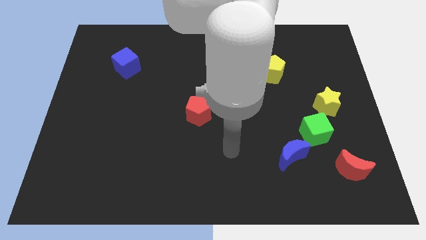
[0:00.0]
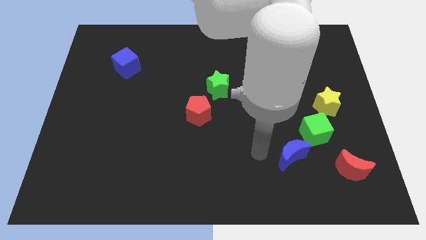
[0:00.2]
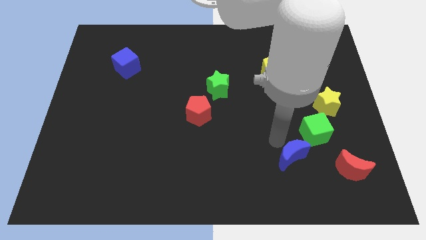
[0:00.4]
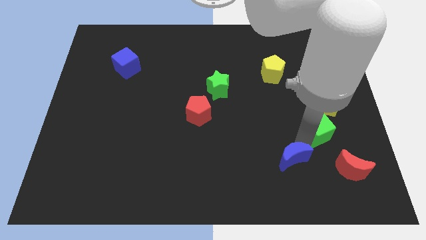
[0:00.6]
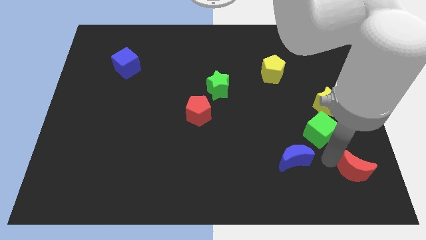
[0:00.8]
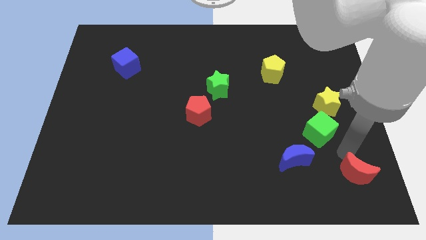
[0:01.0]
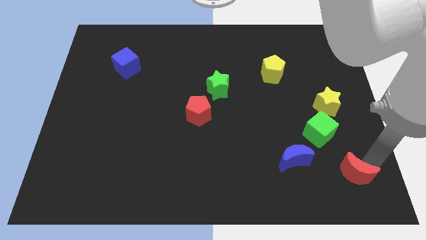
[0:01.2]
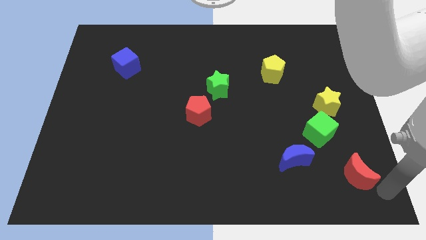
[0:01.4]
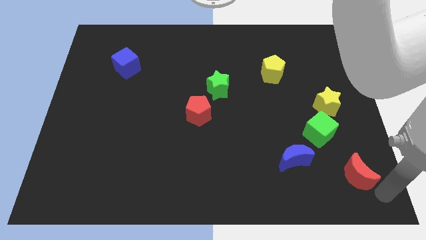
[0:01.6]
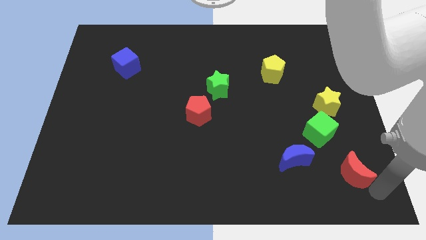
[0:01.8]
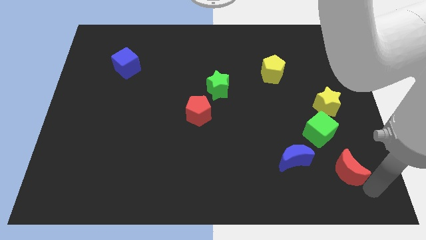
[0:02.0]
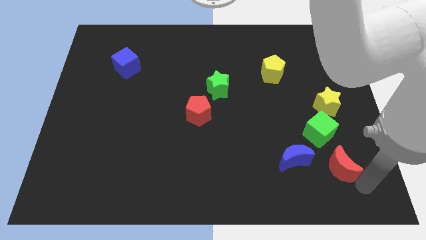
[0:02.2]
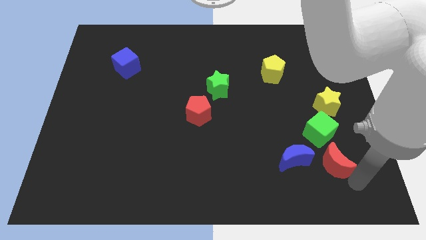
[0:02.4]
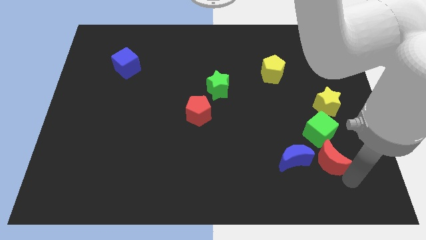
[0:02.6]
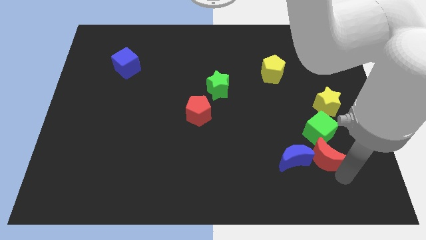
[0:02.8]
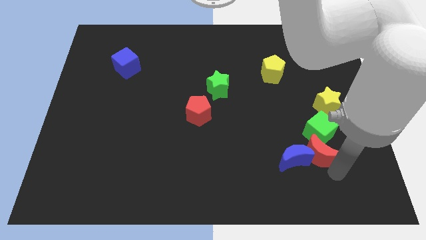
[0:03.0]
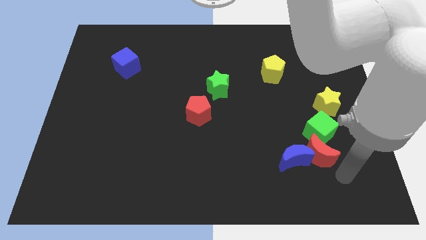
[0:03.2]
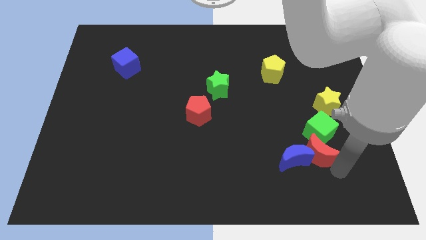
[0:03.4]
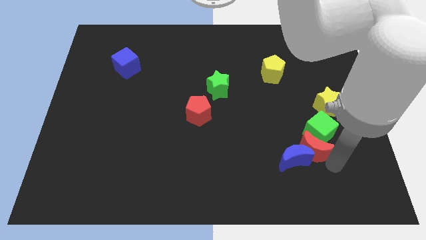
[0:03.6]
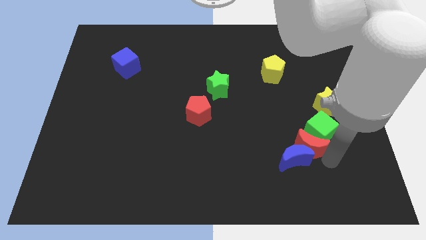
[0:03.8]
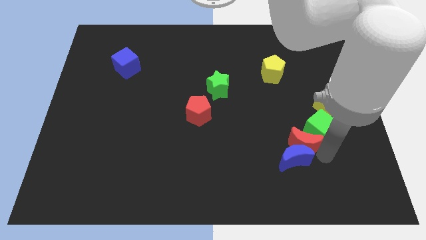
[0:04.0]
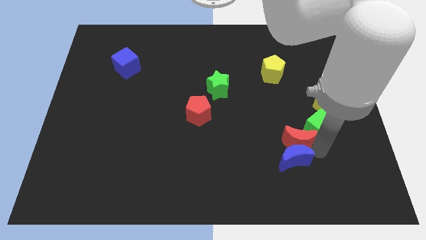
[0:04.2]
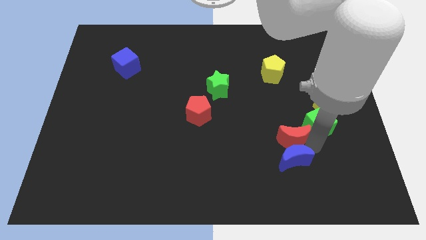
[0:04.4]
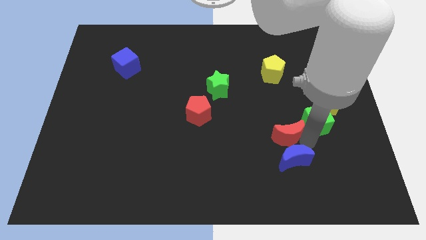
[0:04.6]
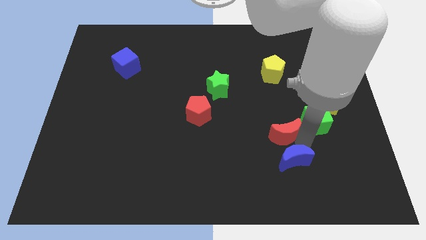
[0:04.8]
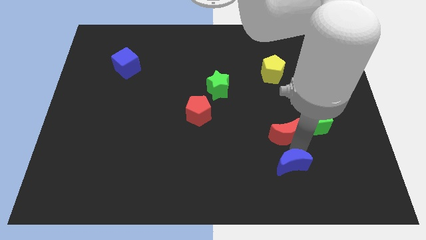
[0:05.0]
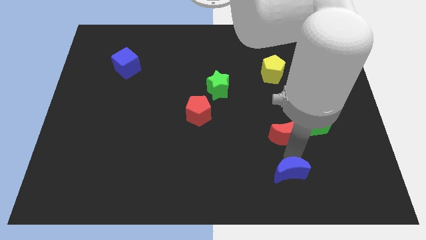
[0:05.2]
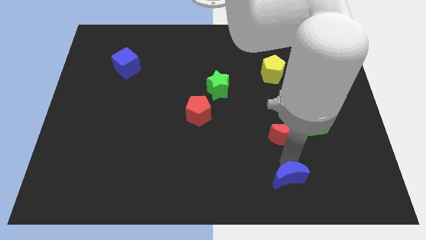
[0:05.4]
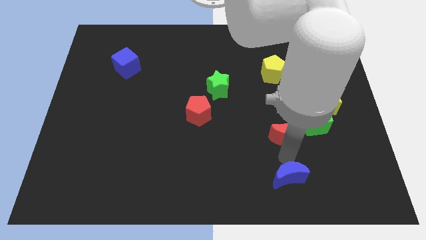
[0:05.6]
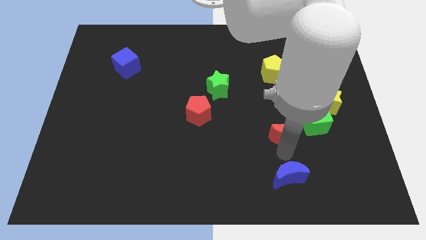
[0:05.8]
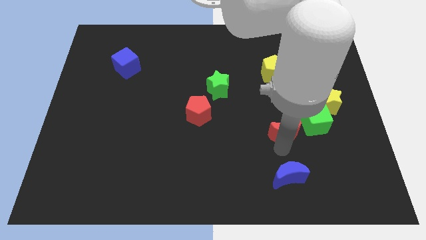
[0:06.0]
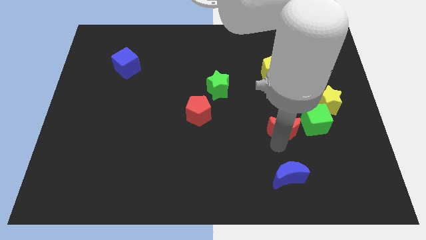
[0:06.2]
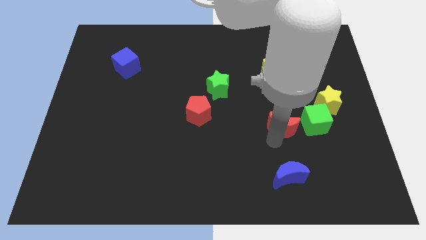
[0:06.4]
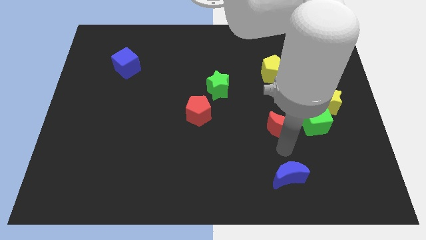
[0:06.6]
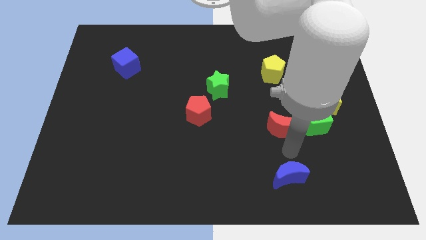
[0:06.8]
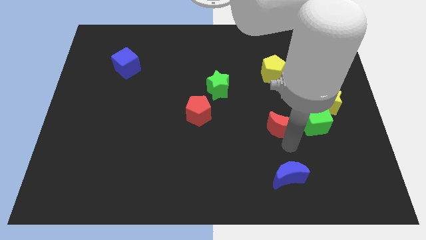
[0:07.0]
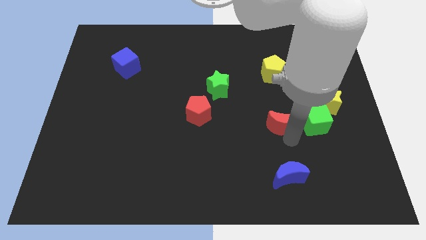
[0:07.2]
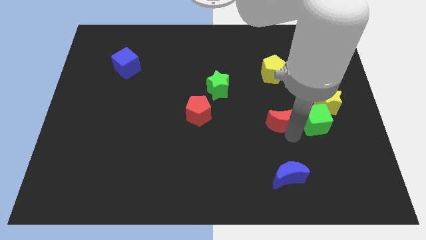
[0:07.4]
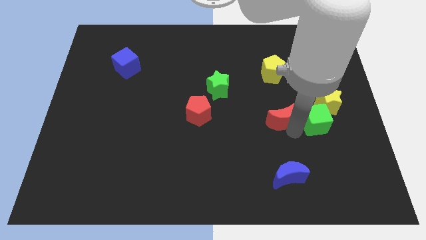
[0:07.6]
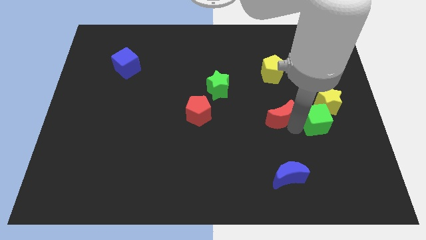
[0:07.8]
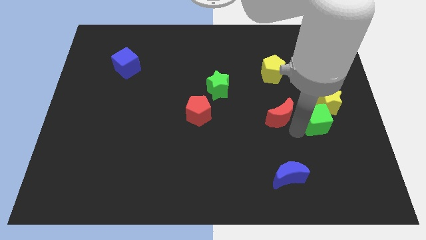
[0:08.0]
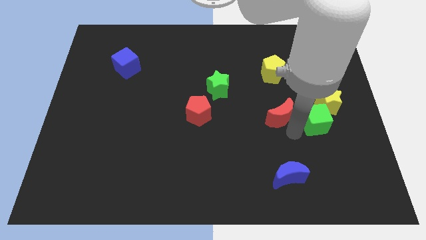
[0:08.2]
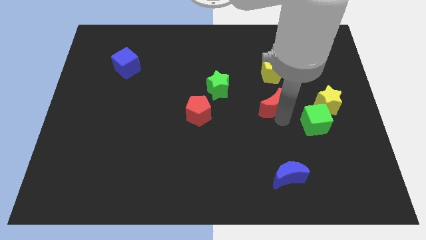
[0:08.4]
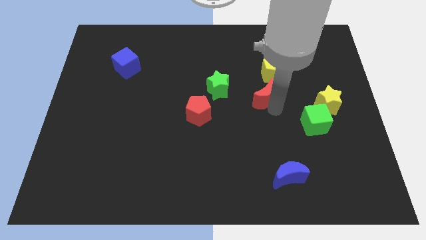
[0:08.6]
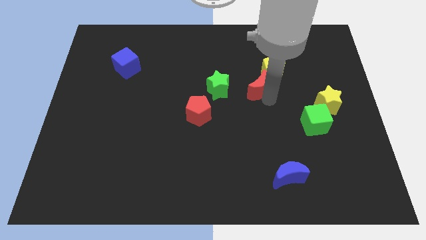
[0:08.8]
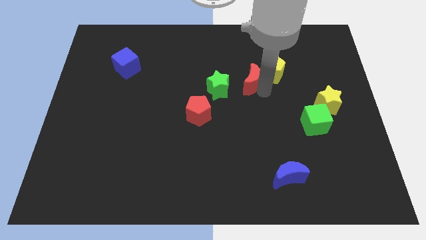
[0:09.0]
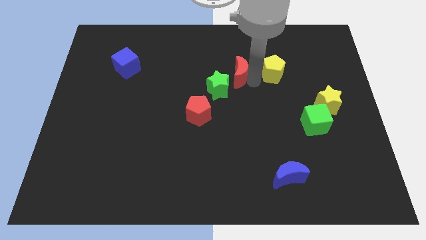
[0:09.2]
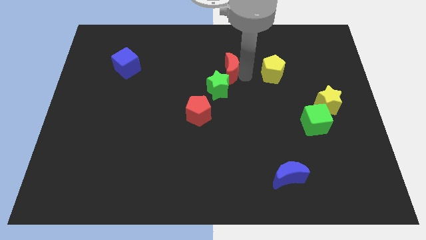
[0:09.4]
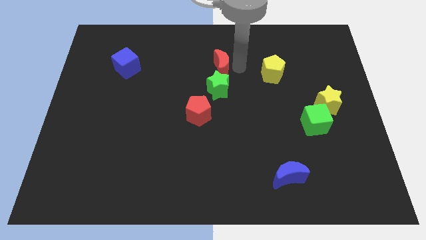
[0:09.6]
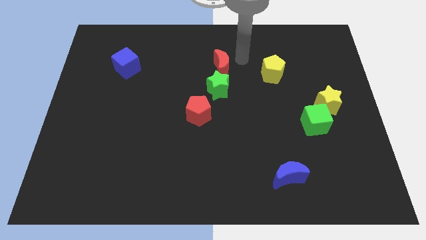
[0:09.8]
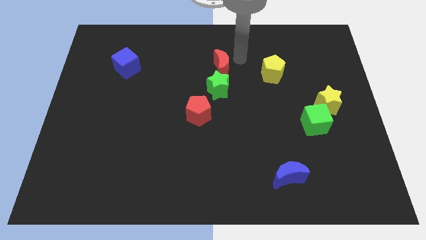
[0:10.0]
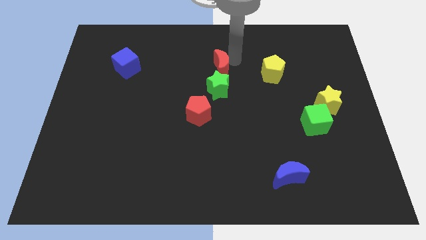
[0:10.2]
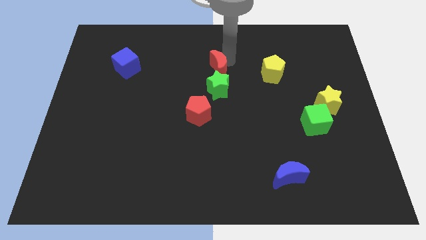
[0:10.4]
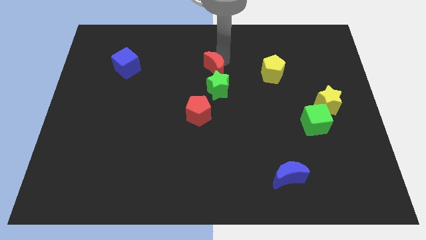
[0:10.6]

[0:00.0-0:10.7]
put the red moon to the top side of the red pentagon
